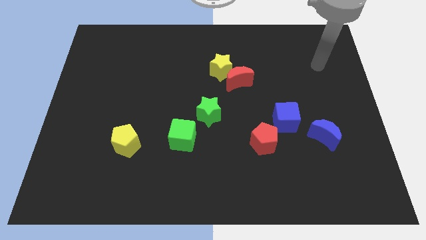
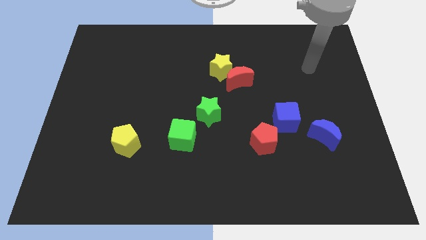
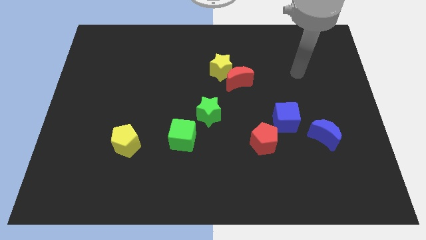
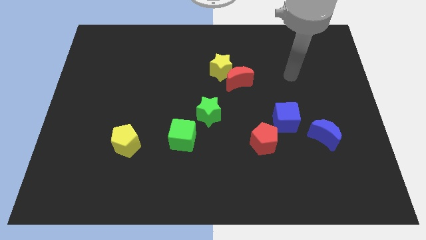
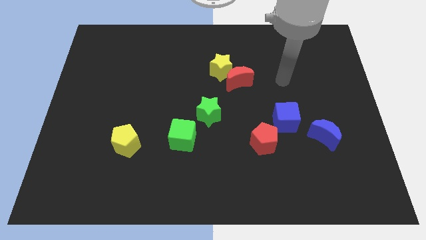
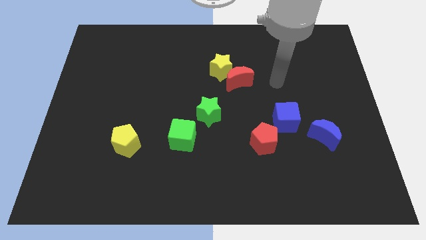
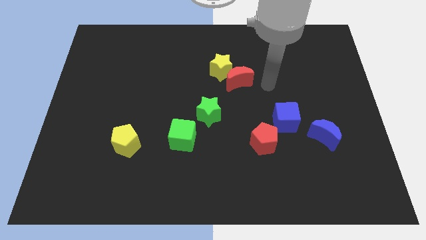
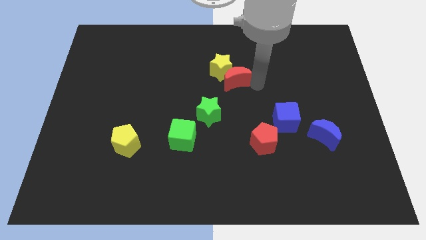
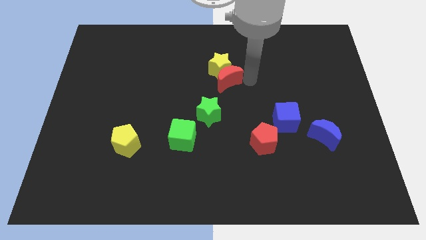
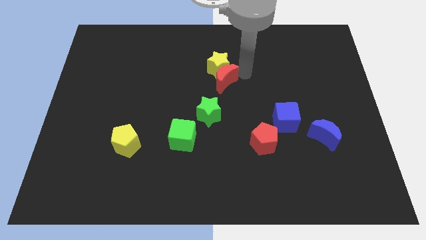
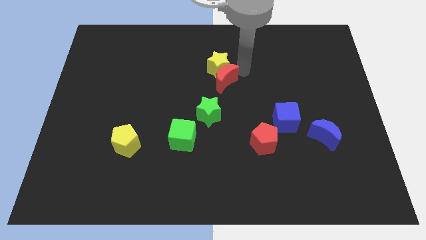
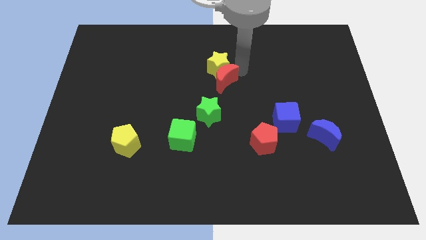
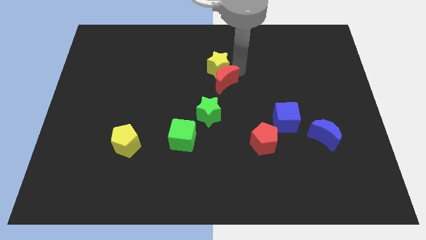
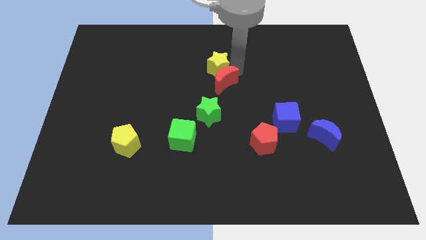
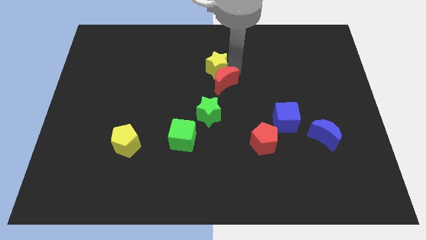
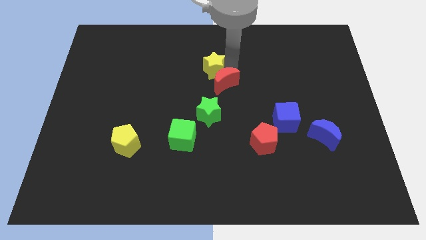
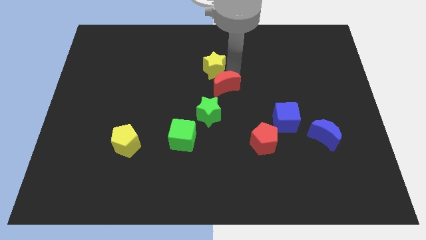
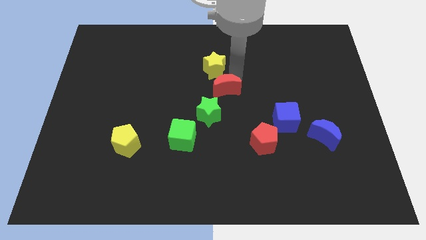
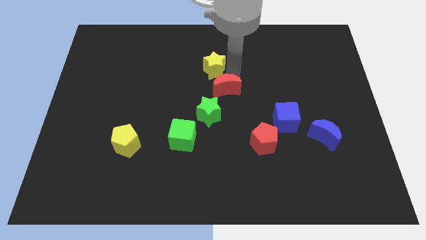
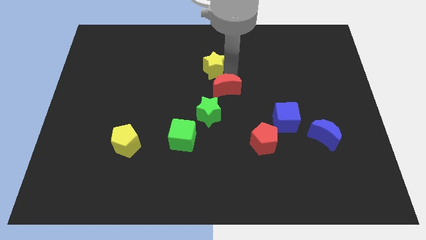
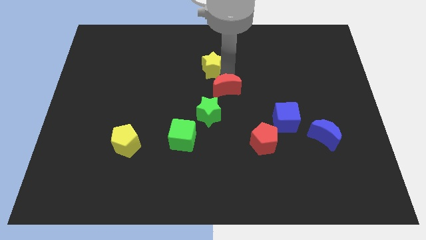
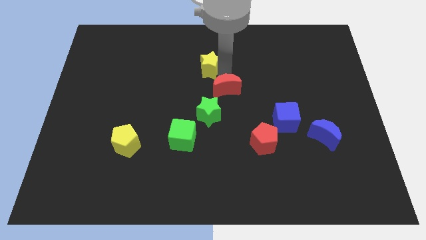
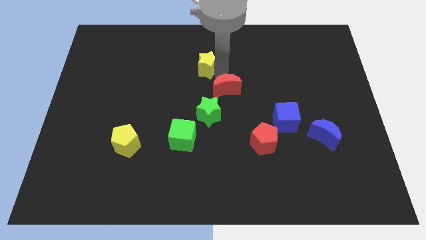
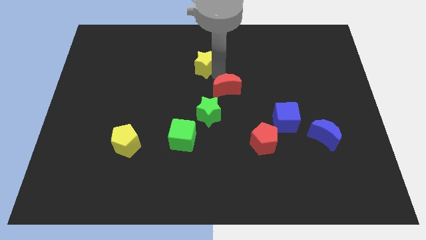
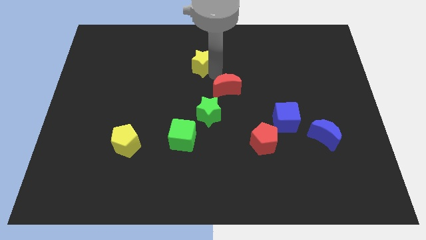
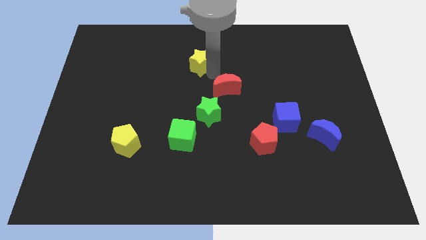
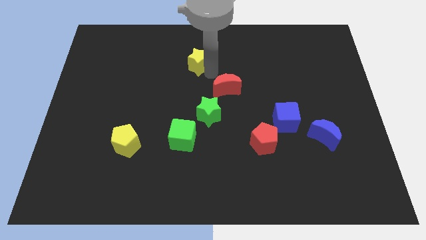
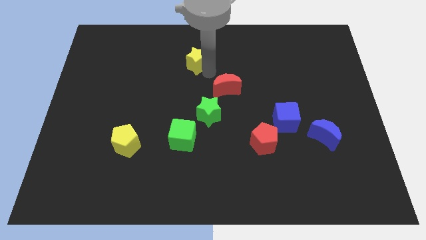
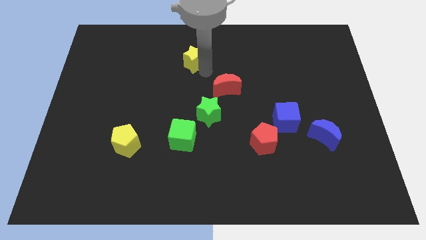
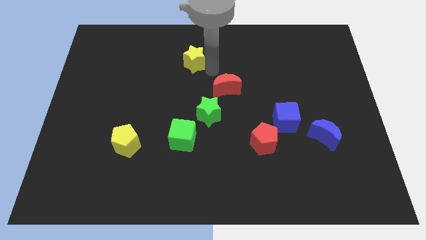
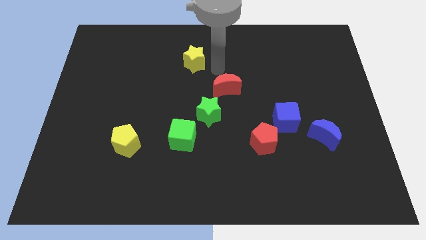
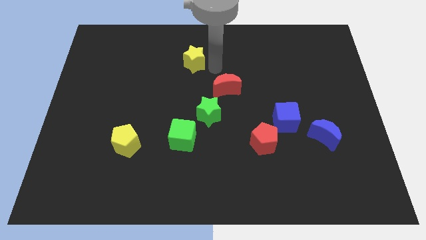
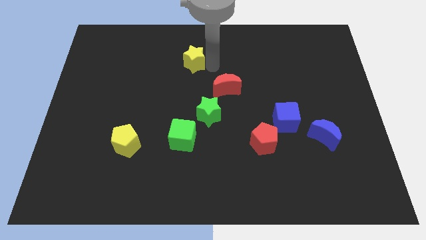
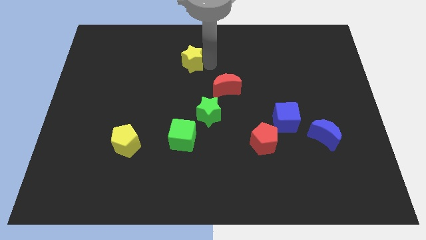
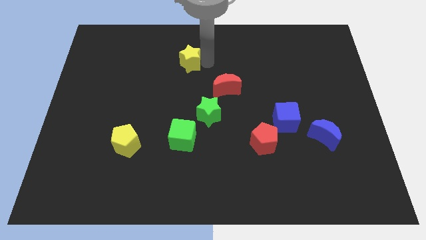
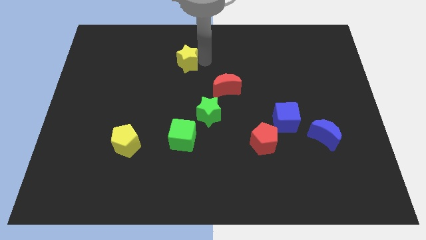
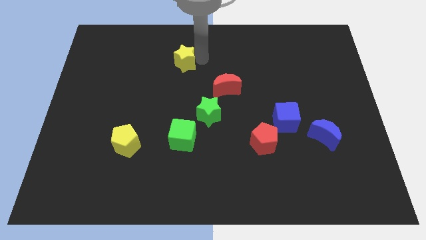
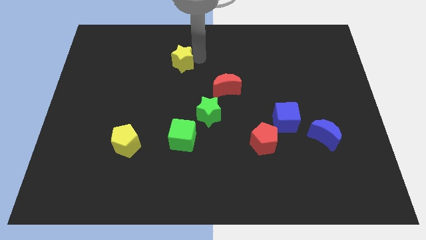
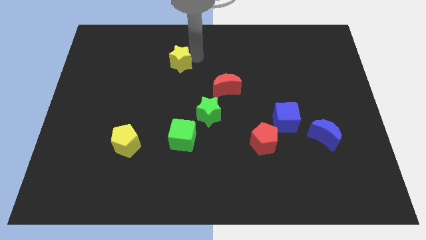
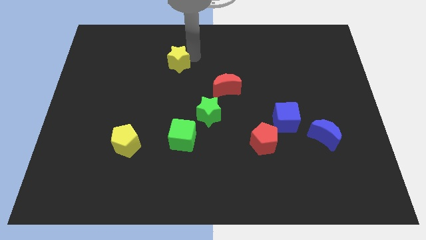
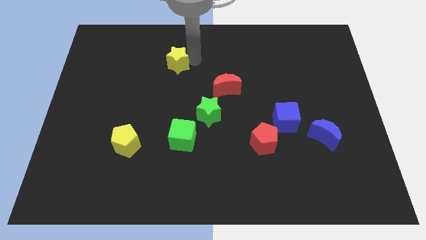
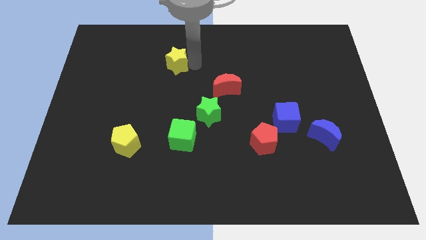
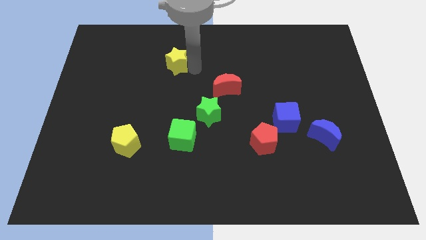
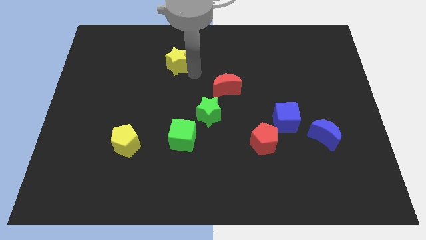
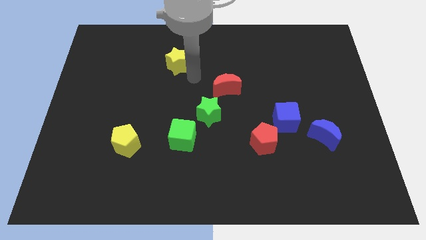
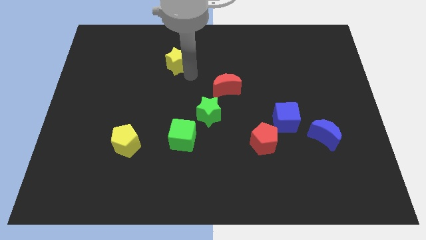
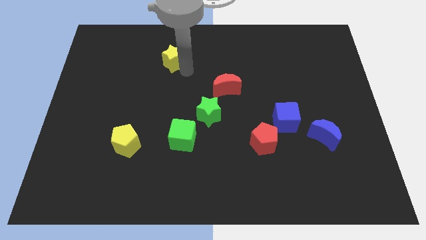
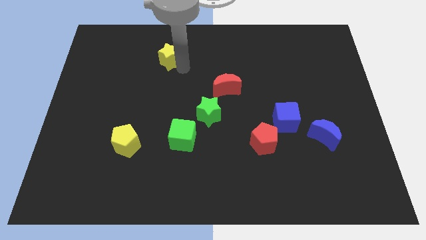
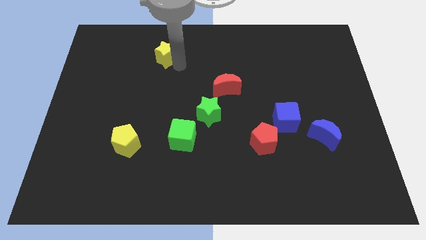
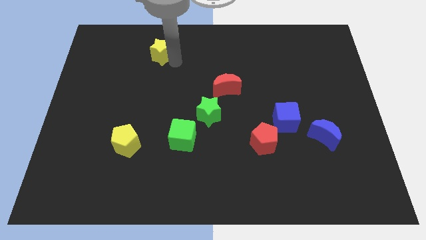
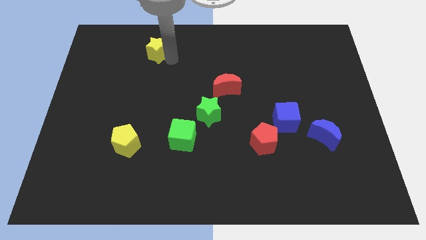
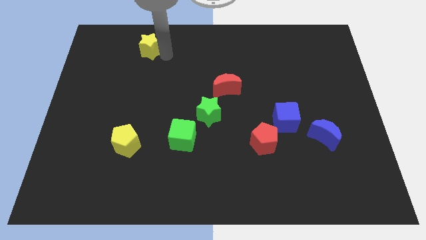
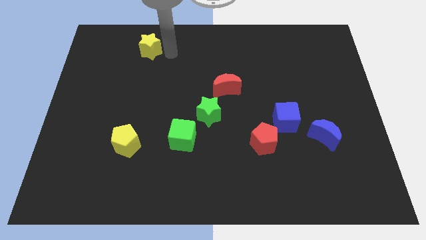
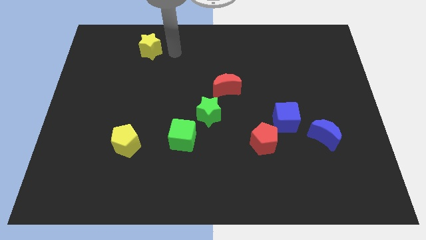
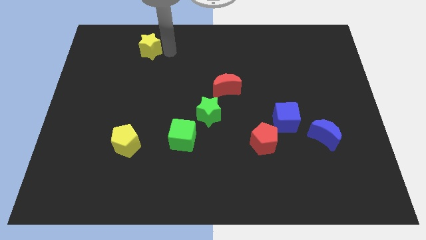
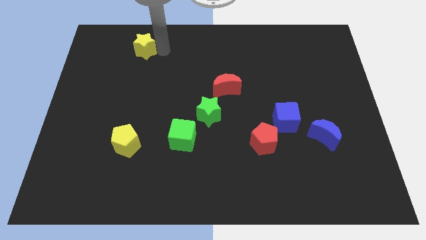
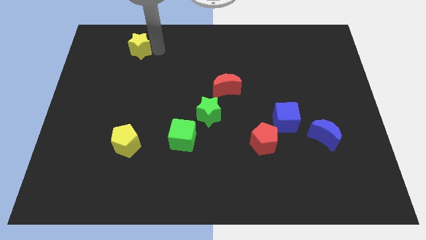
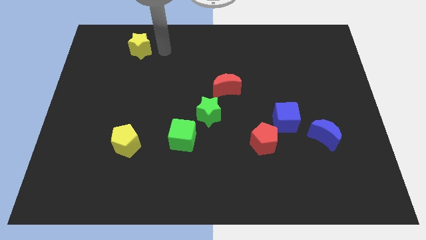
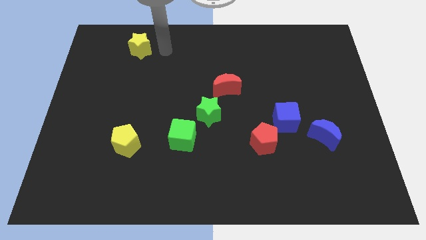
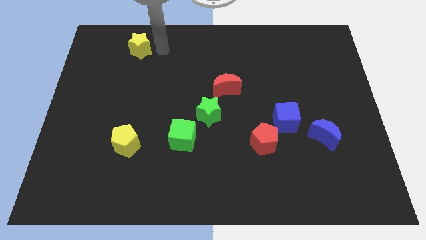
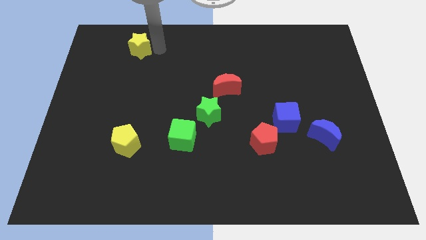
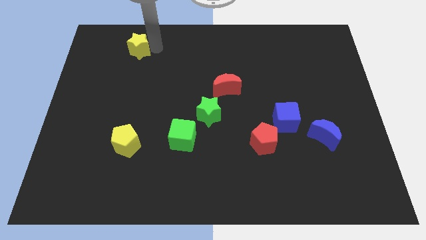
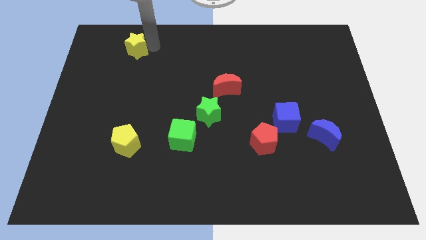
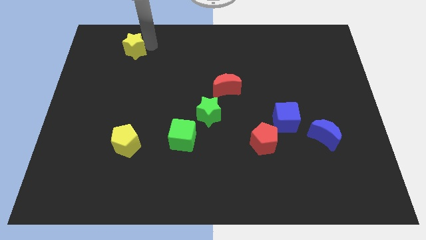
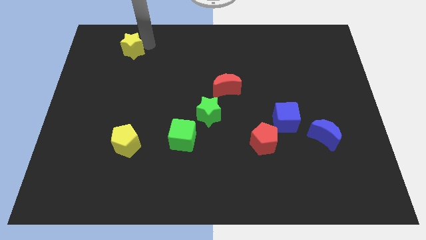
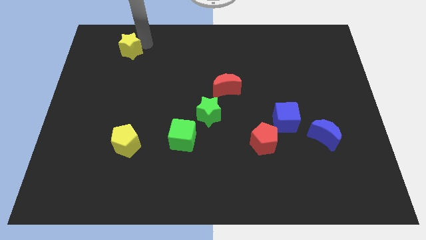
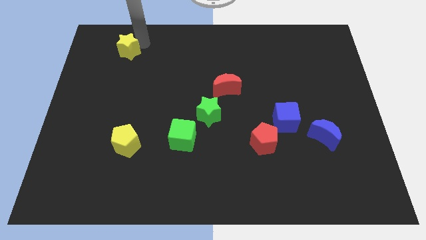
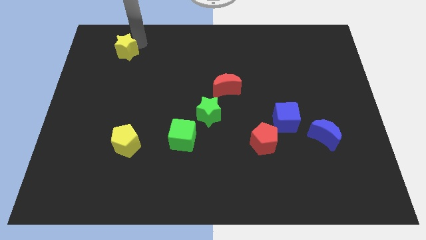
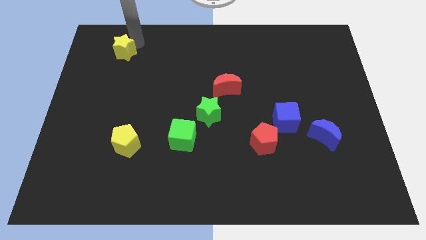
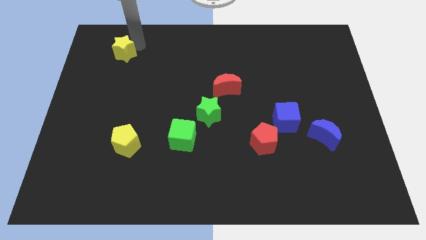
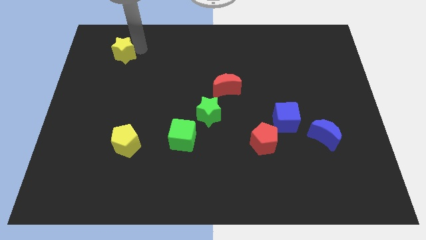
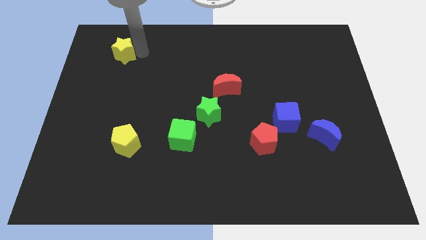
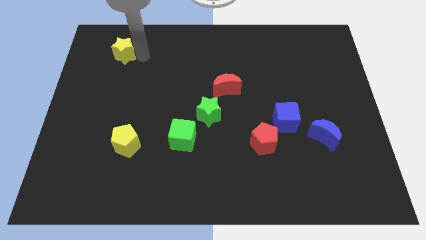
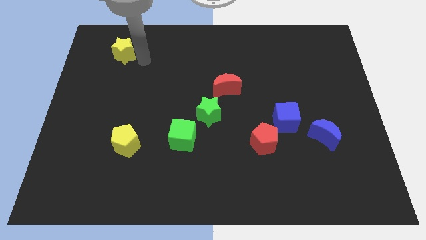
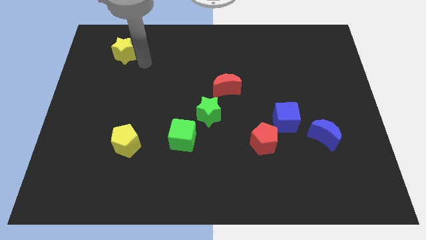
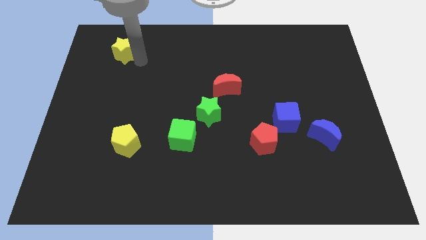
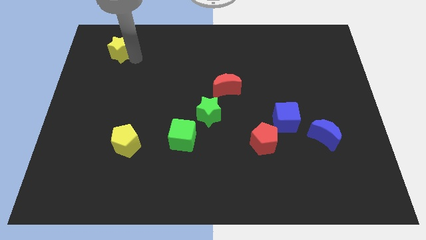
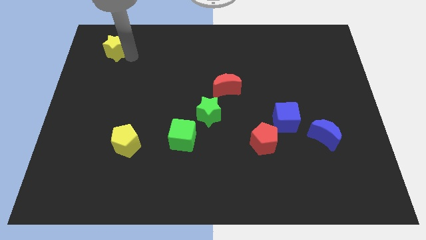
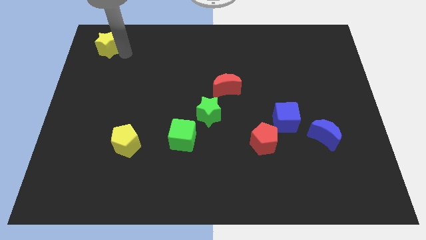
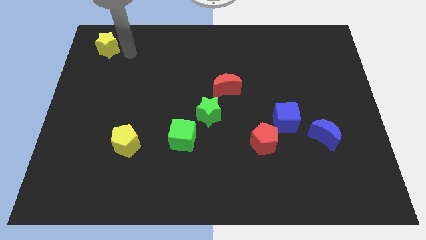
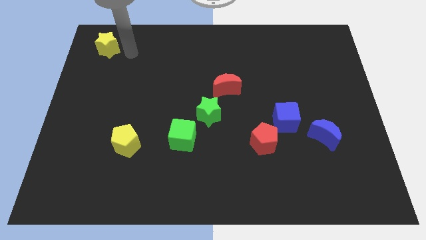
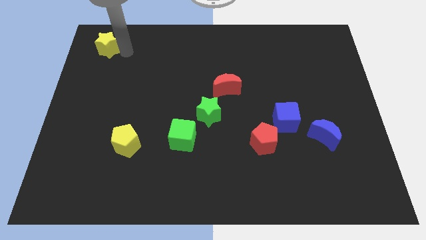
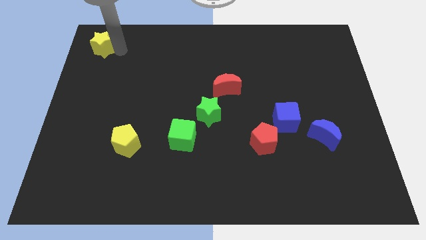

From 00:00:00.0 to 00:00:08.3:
push the yellow star to the top left
